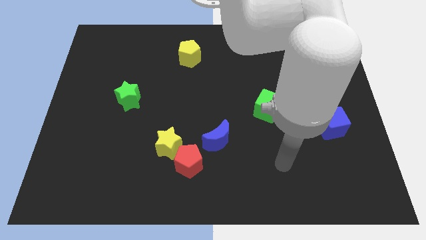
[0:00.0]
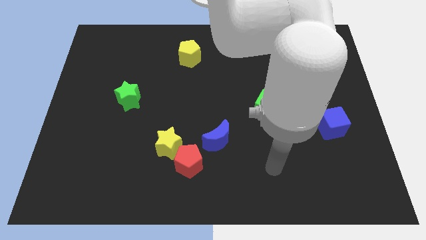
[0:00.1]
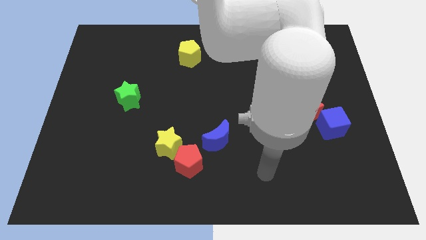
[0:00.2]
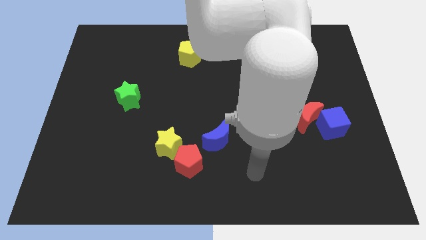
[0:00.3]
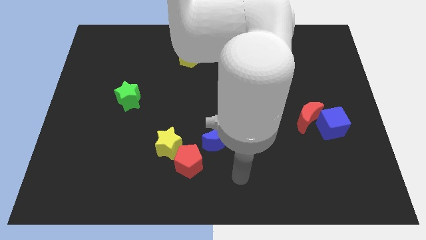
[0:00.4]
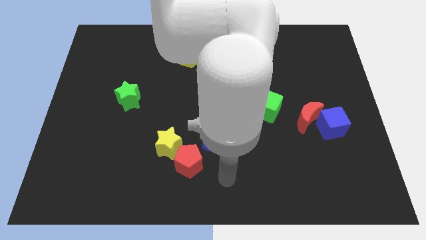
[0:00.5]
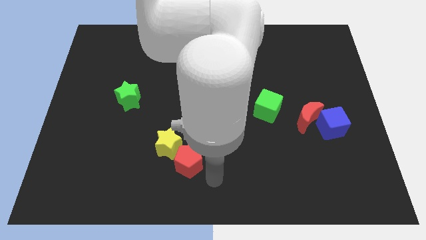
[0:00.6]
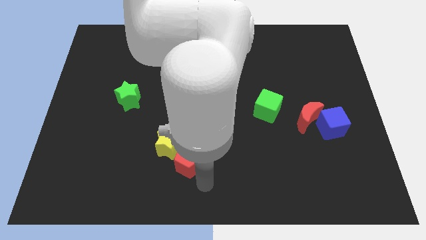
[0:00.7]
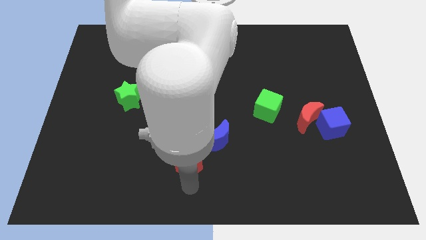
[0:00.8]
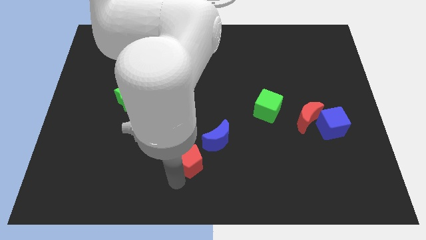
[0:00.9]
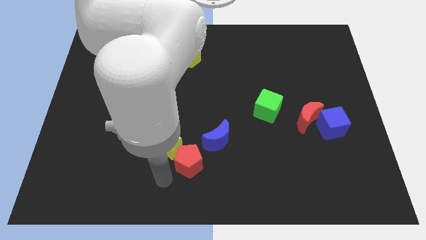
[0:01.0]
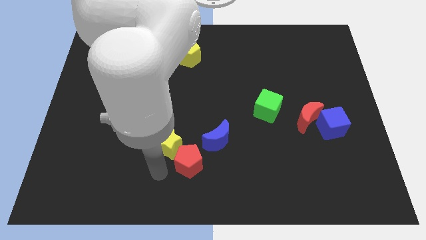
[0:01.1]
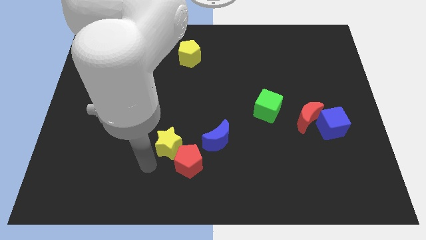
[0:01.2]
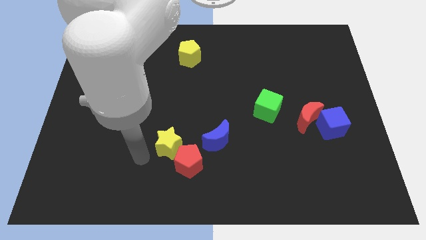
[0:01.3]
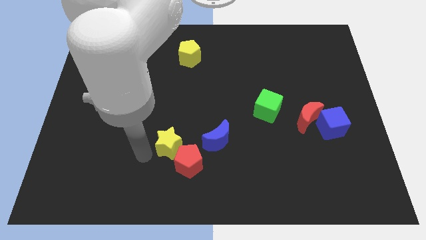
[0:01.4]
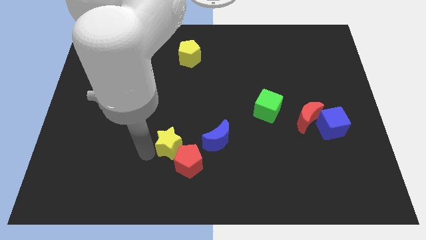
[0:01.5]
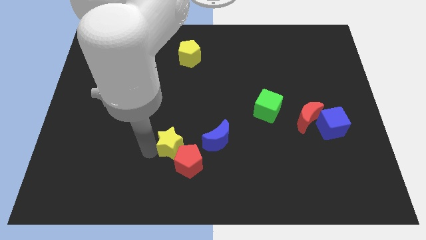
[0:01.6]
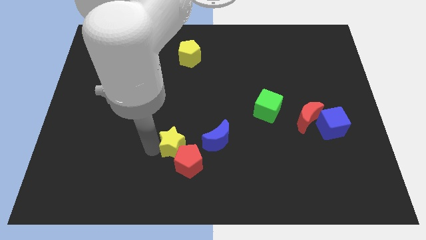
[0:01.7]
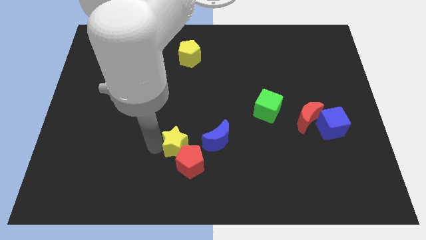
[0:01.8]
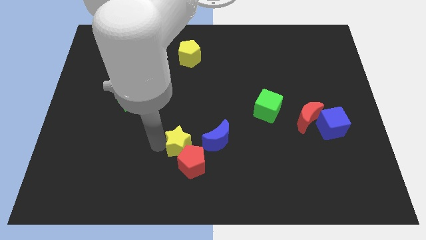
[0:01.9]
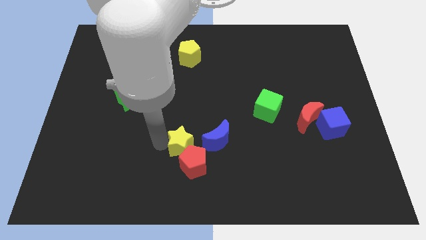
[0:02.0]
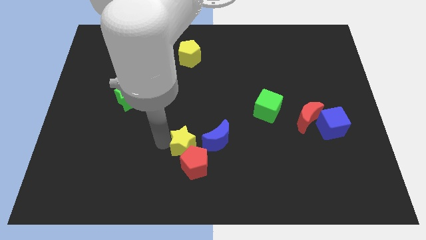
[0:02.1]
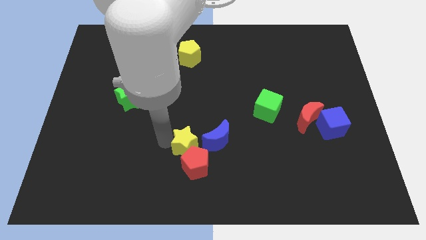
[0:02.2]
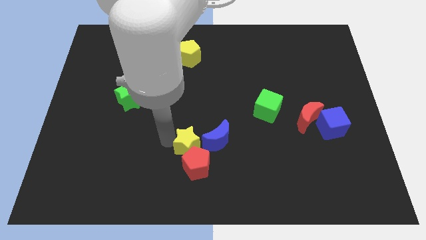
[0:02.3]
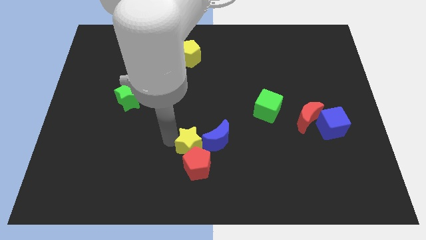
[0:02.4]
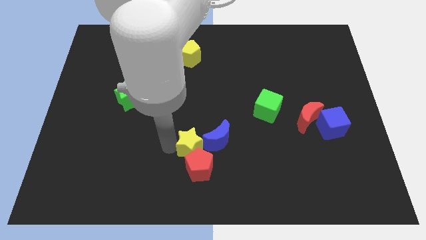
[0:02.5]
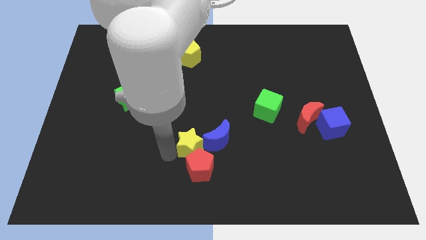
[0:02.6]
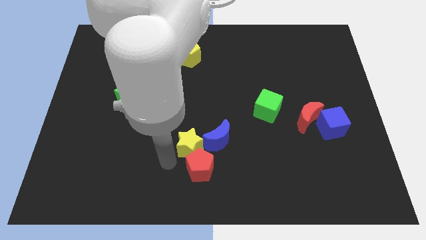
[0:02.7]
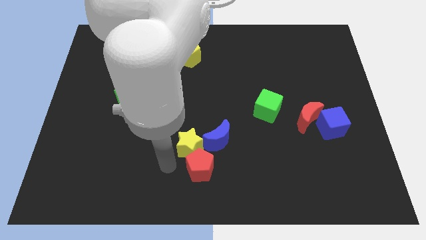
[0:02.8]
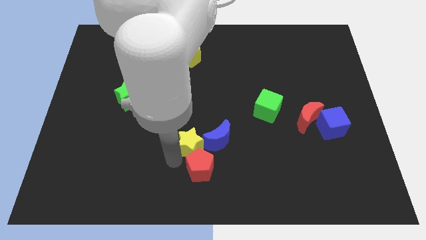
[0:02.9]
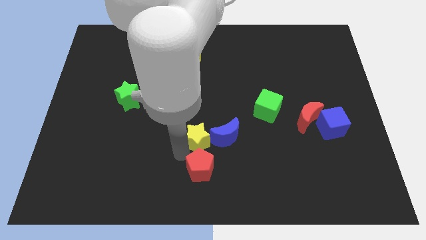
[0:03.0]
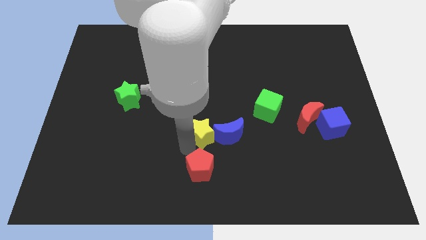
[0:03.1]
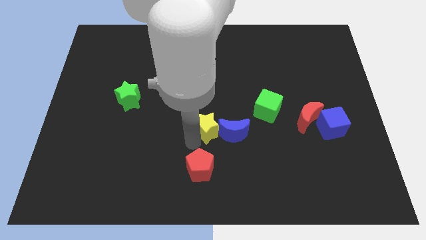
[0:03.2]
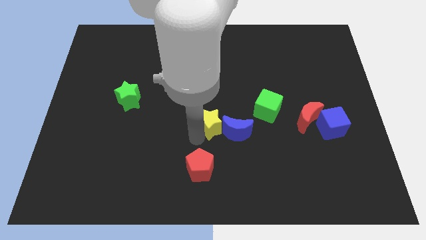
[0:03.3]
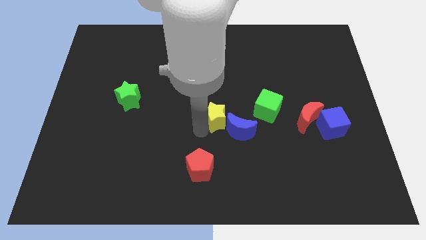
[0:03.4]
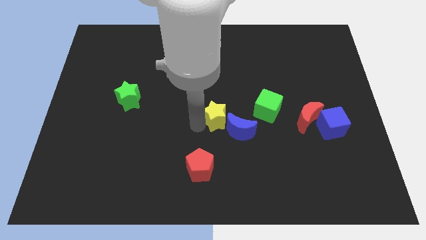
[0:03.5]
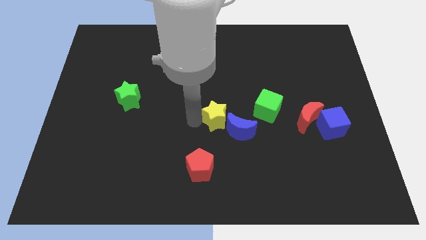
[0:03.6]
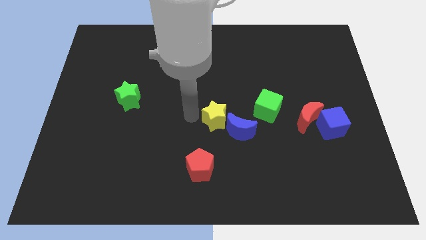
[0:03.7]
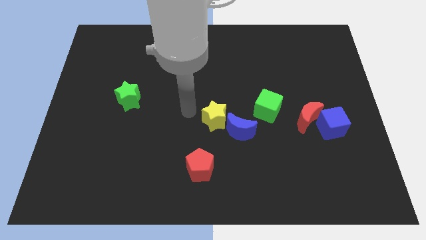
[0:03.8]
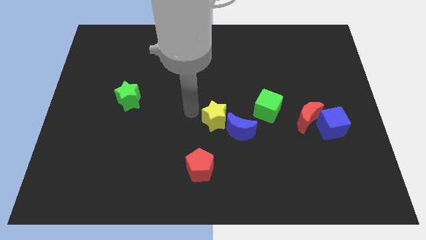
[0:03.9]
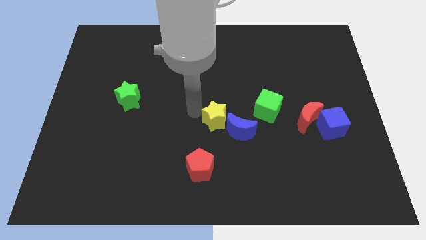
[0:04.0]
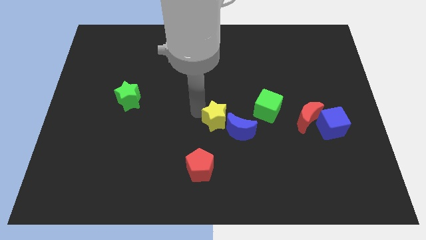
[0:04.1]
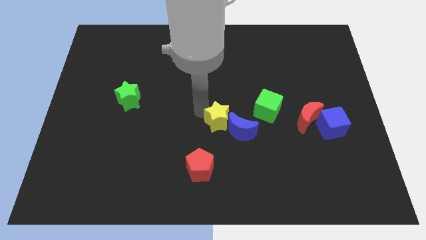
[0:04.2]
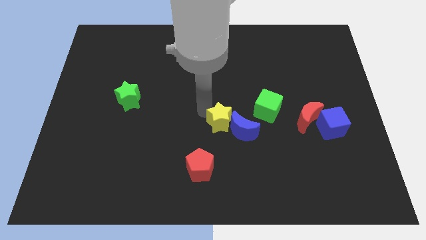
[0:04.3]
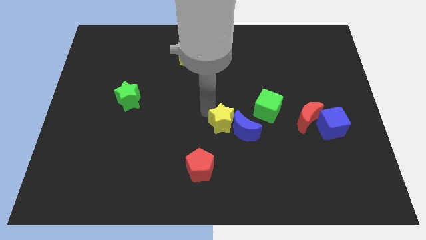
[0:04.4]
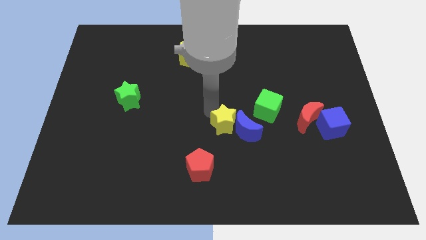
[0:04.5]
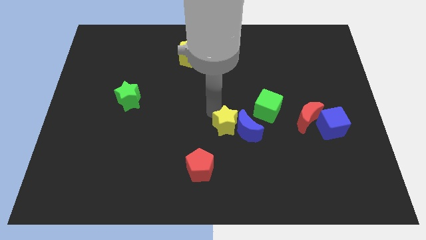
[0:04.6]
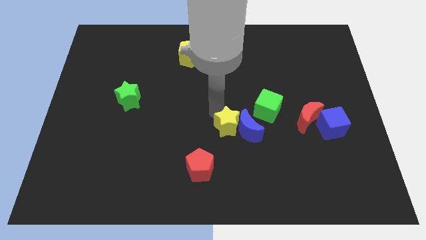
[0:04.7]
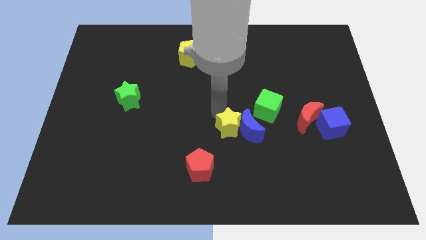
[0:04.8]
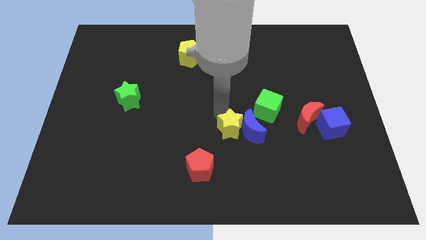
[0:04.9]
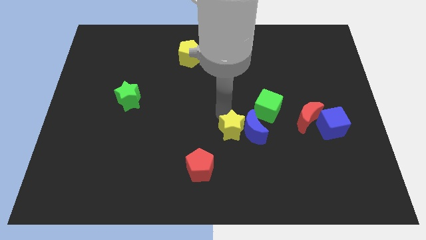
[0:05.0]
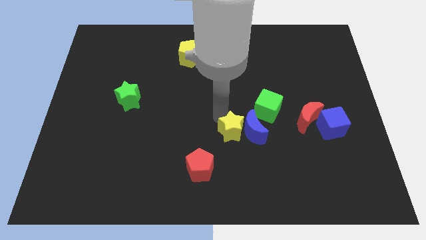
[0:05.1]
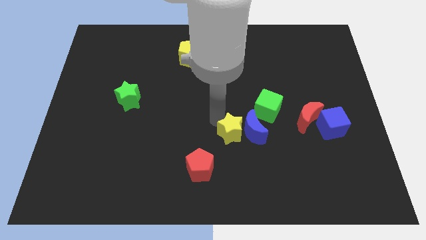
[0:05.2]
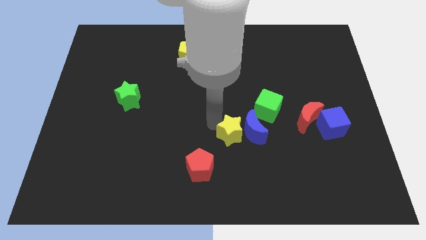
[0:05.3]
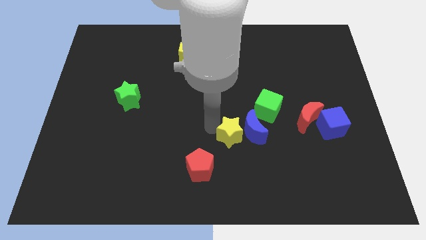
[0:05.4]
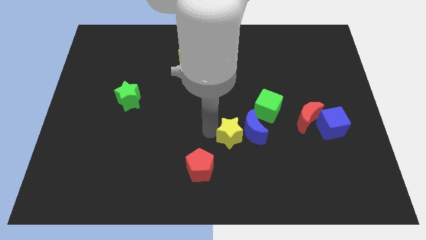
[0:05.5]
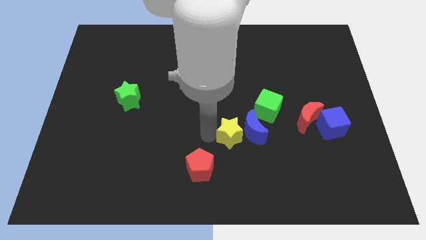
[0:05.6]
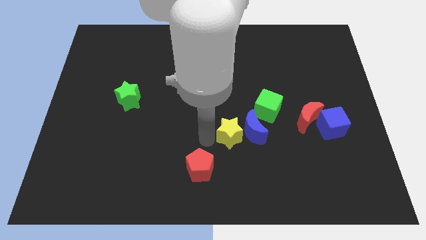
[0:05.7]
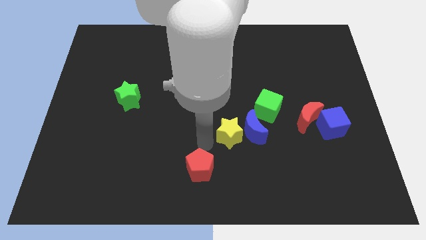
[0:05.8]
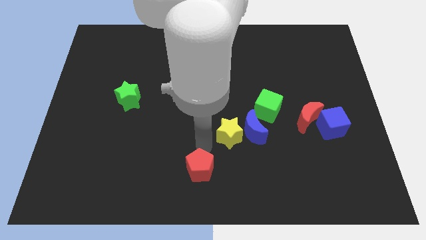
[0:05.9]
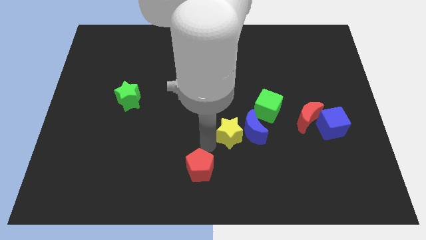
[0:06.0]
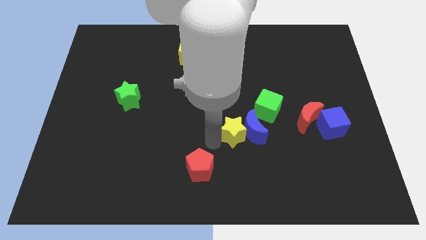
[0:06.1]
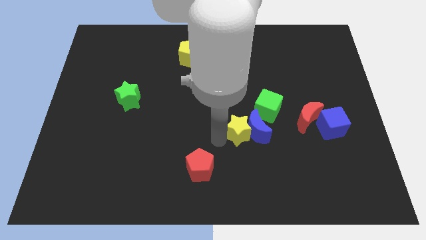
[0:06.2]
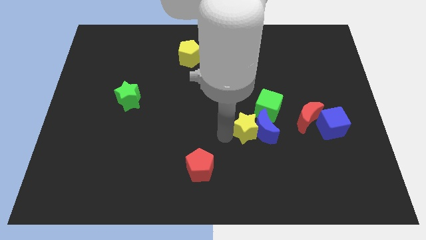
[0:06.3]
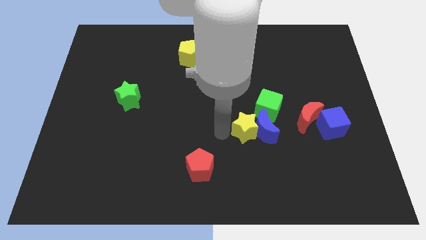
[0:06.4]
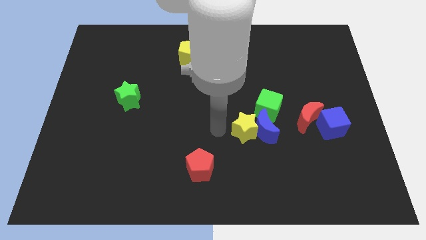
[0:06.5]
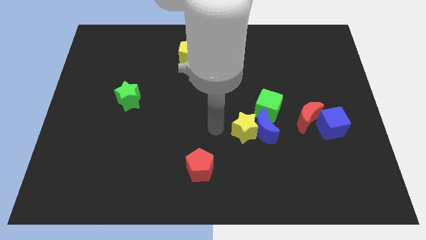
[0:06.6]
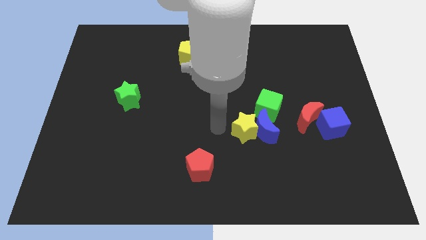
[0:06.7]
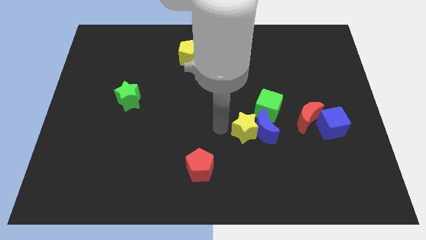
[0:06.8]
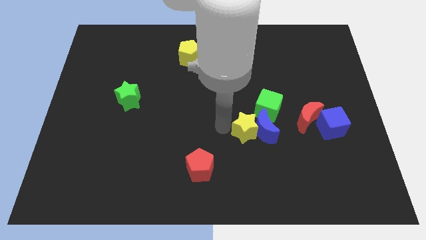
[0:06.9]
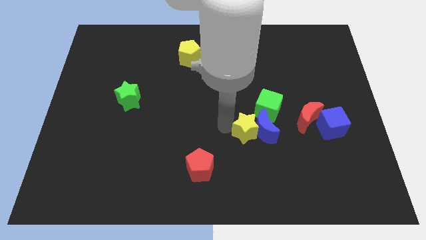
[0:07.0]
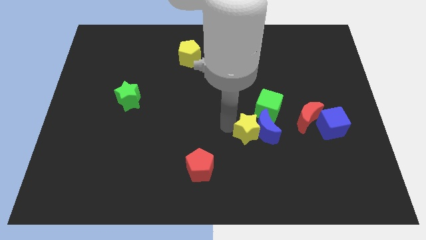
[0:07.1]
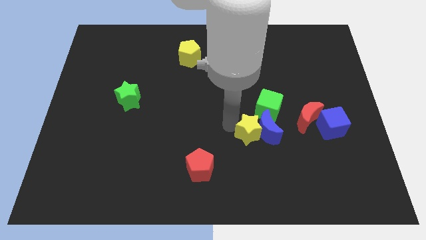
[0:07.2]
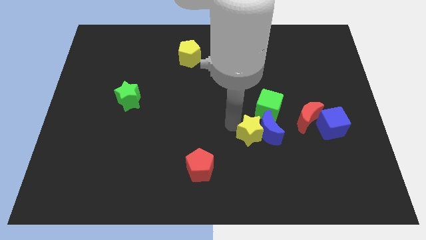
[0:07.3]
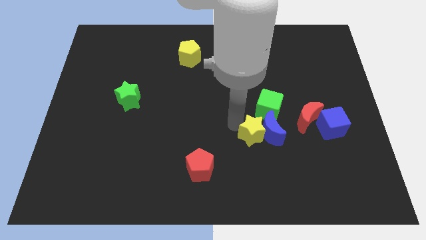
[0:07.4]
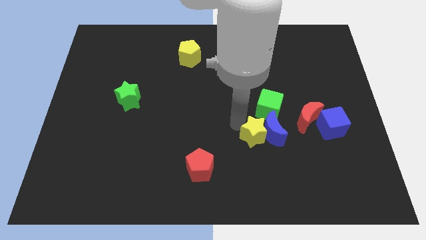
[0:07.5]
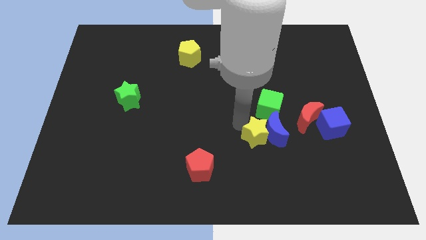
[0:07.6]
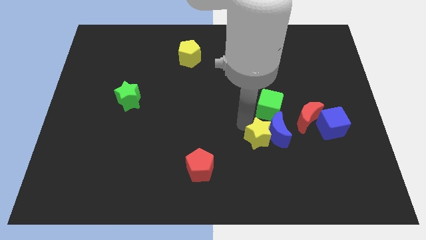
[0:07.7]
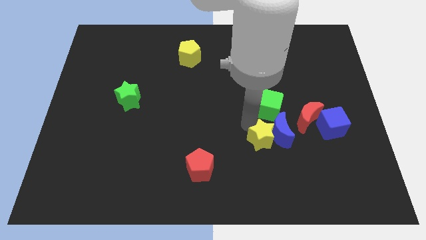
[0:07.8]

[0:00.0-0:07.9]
slide the yellow star to the right

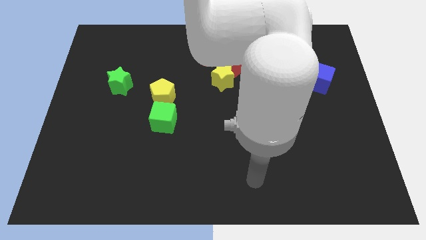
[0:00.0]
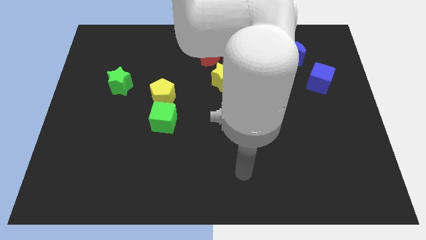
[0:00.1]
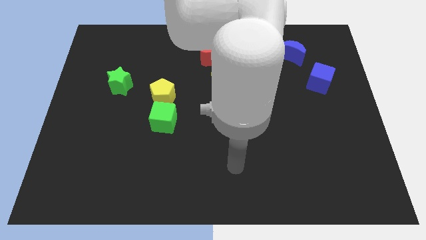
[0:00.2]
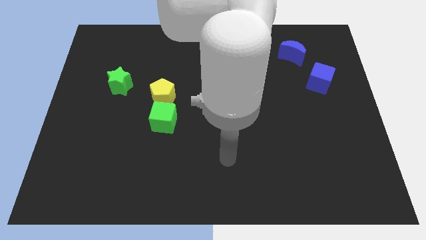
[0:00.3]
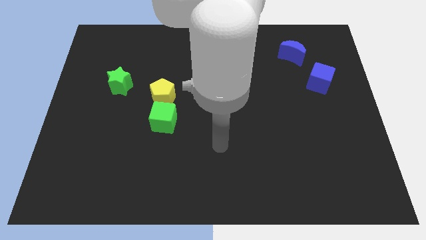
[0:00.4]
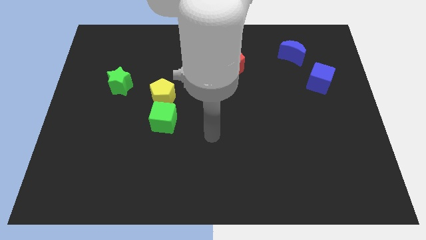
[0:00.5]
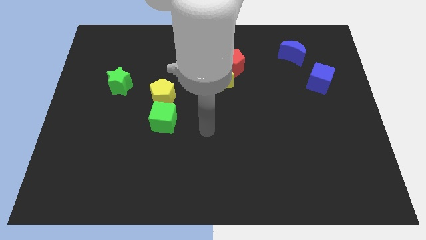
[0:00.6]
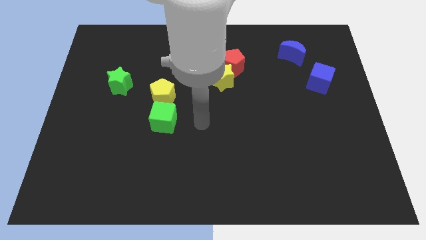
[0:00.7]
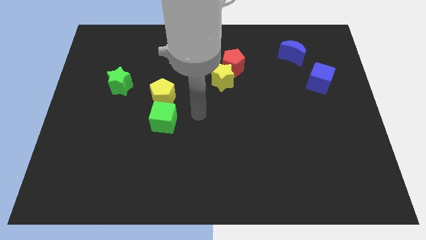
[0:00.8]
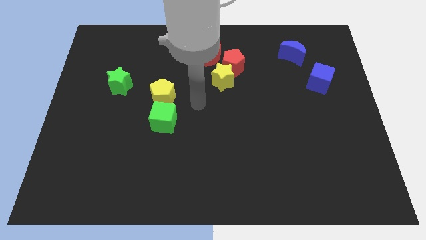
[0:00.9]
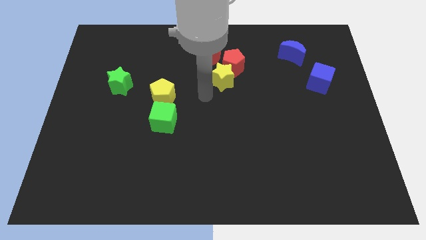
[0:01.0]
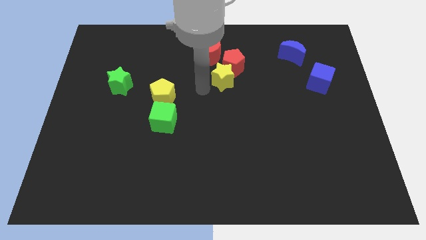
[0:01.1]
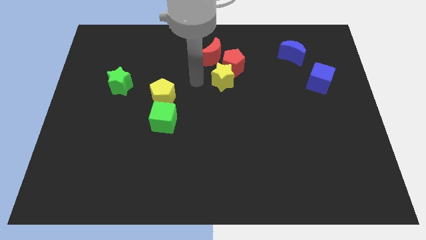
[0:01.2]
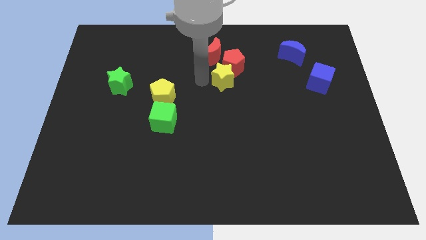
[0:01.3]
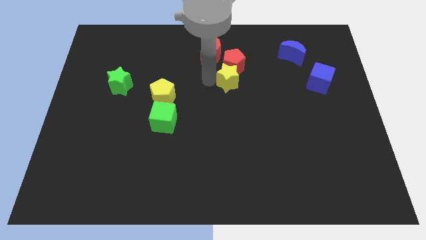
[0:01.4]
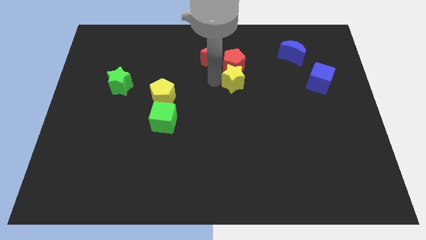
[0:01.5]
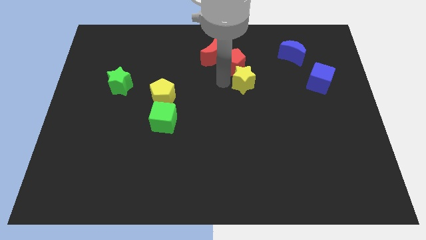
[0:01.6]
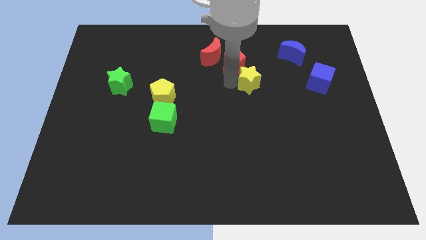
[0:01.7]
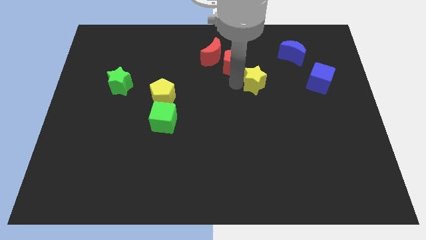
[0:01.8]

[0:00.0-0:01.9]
slide the yellow star to the right a little bit
